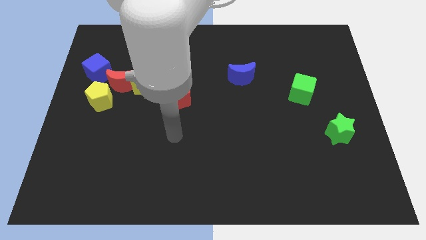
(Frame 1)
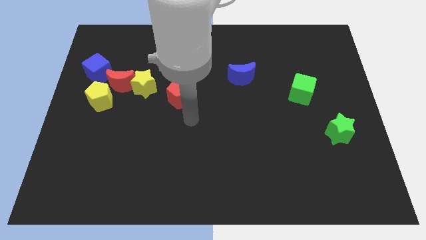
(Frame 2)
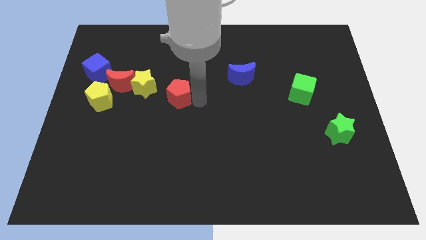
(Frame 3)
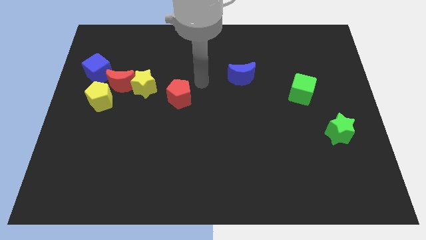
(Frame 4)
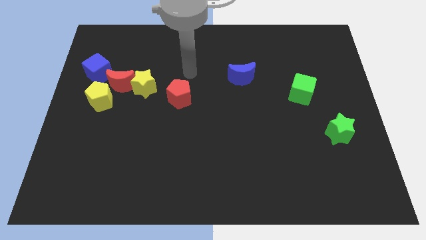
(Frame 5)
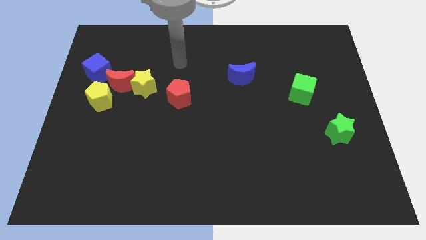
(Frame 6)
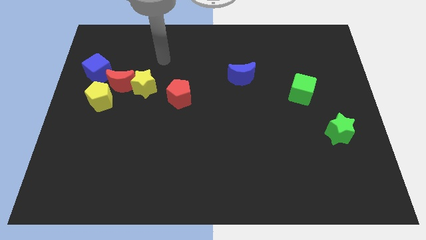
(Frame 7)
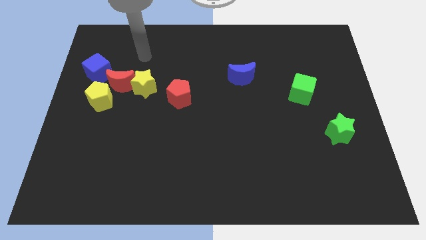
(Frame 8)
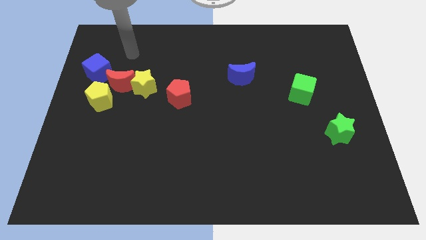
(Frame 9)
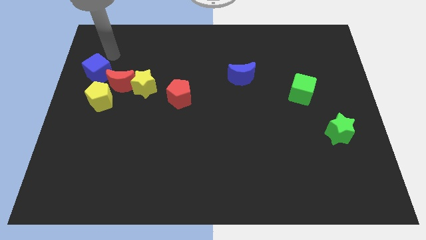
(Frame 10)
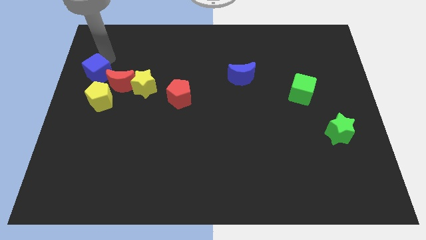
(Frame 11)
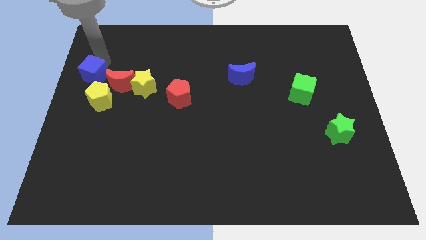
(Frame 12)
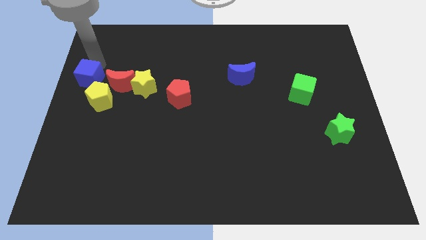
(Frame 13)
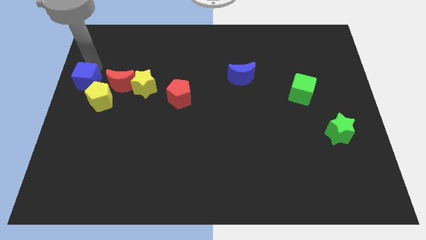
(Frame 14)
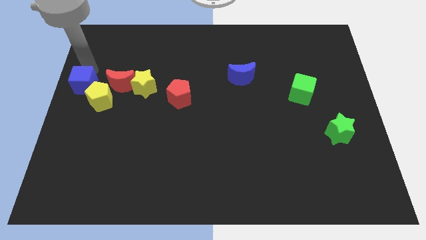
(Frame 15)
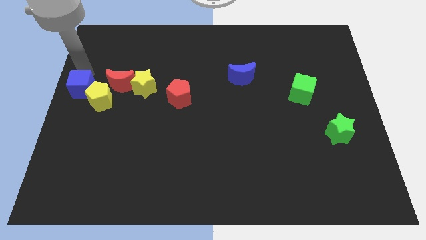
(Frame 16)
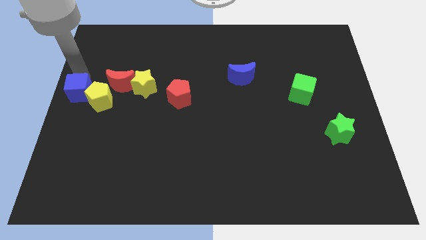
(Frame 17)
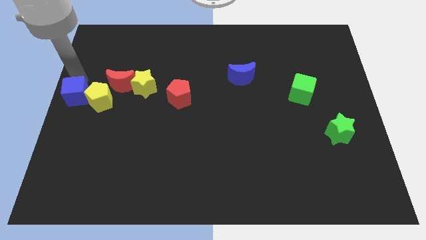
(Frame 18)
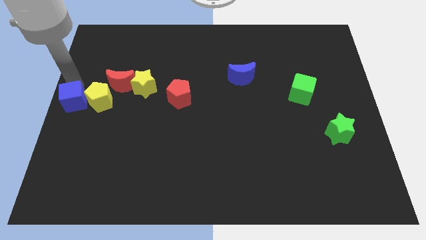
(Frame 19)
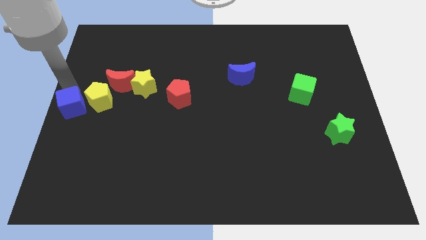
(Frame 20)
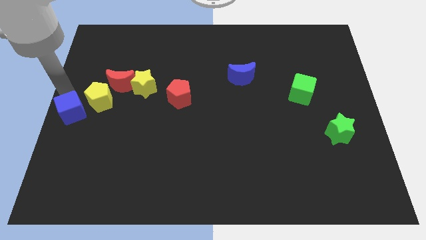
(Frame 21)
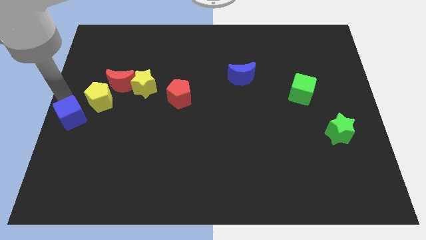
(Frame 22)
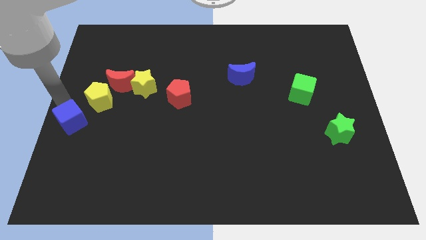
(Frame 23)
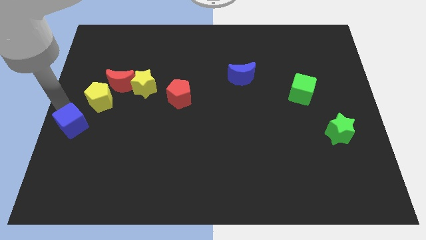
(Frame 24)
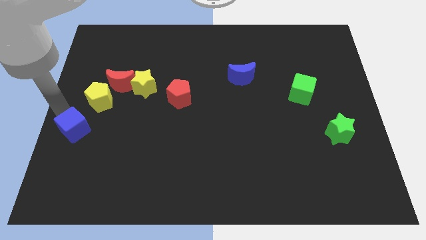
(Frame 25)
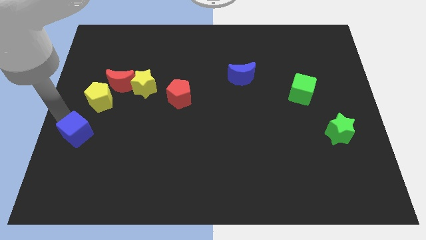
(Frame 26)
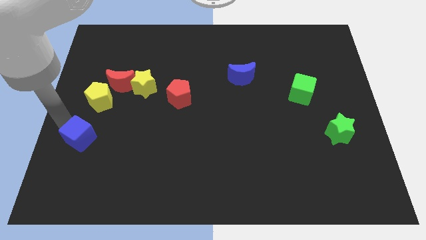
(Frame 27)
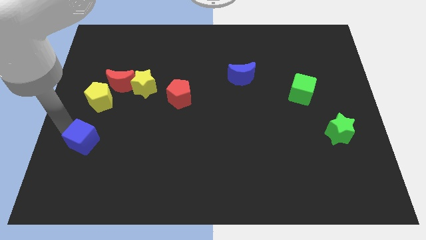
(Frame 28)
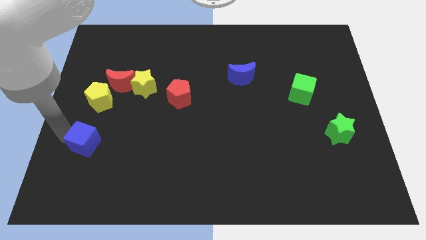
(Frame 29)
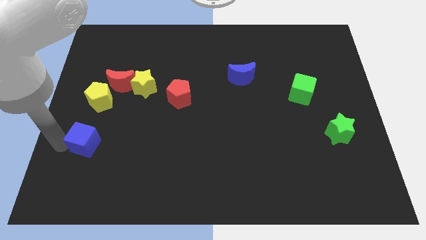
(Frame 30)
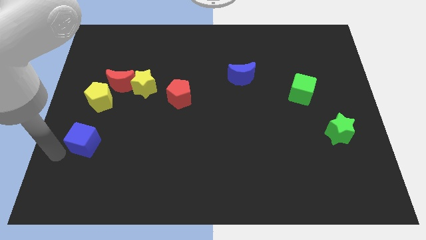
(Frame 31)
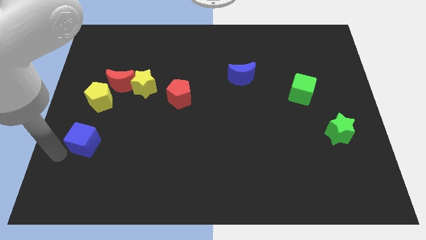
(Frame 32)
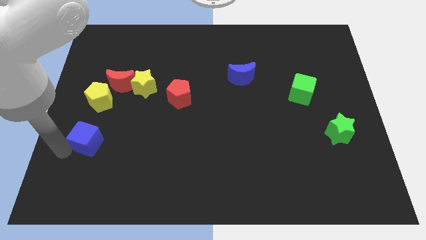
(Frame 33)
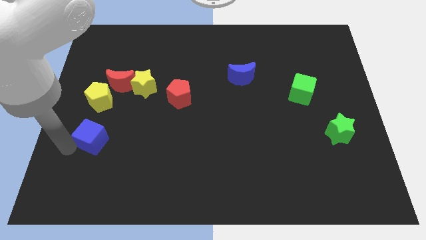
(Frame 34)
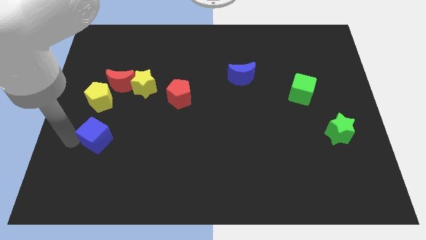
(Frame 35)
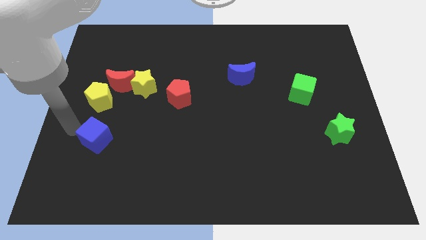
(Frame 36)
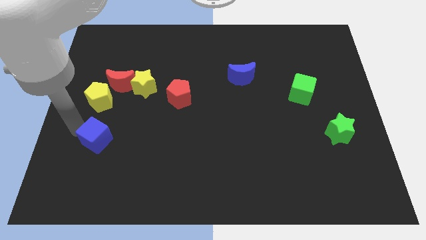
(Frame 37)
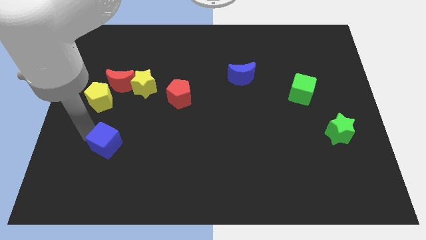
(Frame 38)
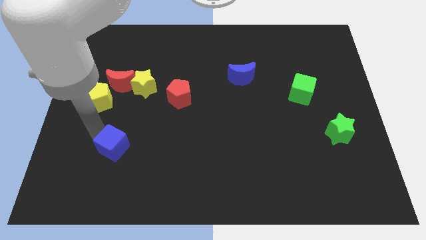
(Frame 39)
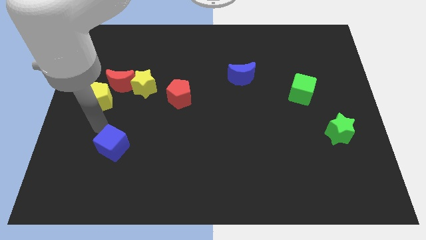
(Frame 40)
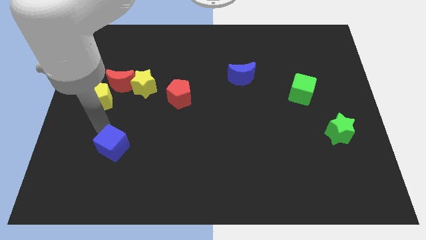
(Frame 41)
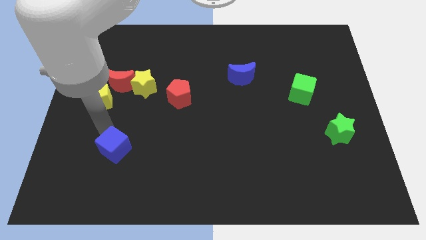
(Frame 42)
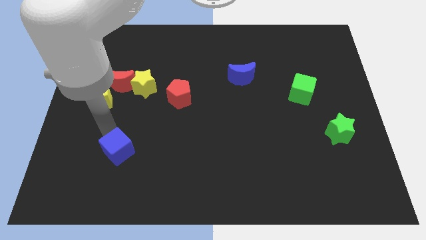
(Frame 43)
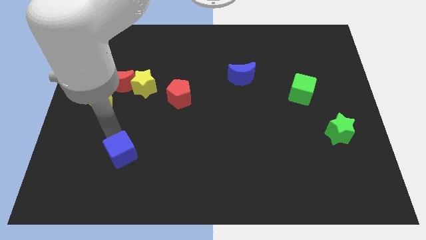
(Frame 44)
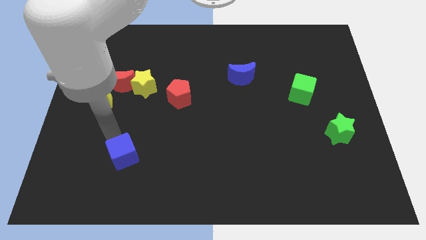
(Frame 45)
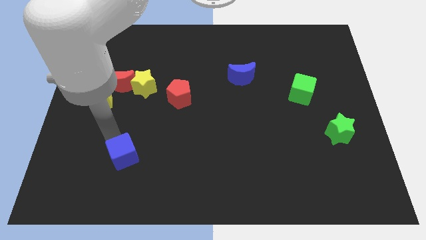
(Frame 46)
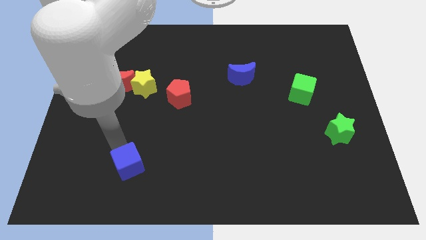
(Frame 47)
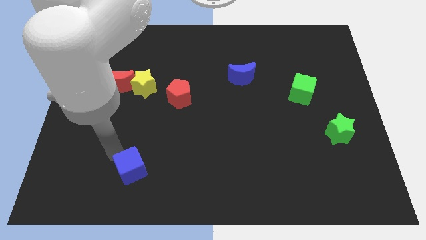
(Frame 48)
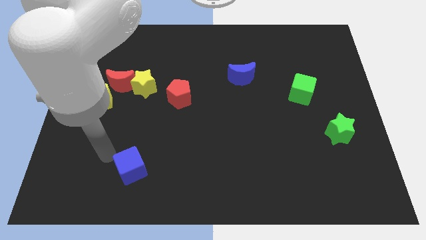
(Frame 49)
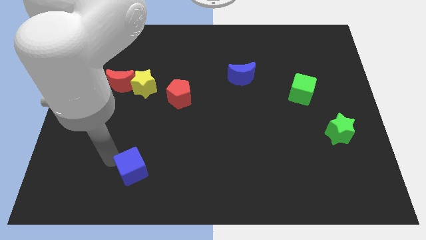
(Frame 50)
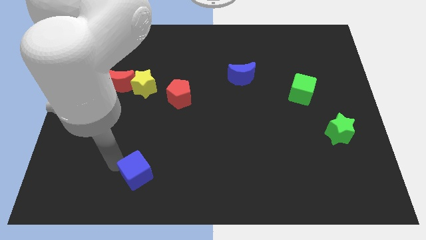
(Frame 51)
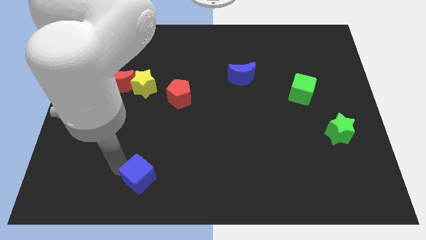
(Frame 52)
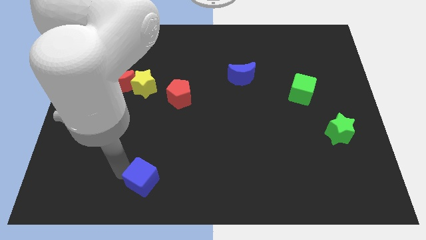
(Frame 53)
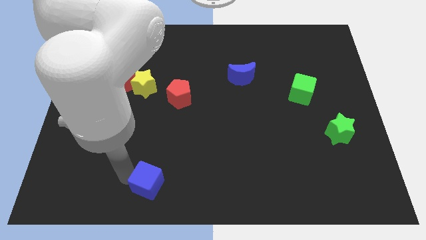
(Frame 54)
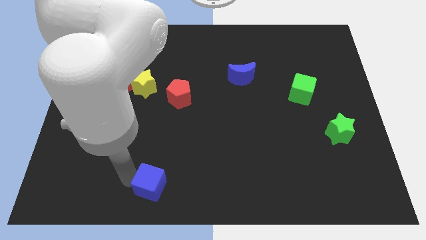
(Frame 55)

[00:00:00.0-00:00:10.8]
move the blue cube to the bottom

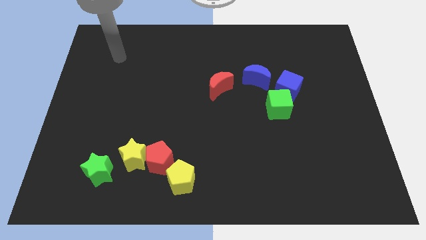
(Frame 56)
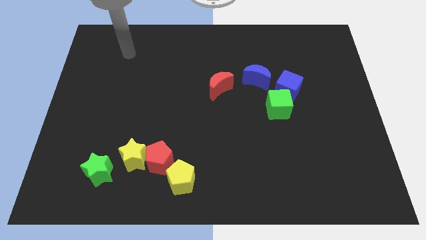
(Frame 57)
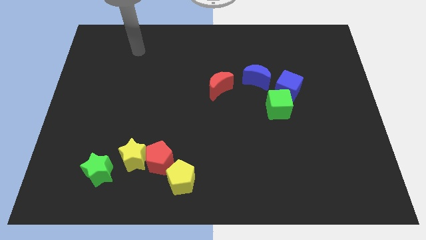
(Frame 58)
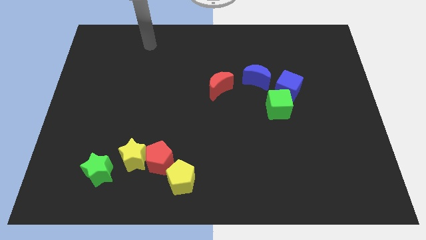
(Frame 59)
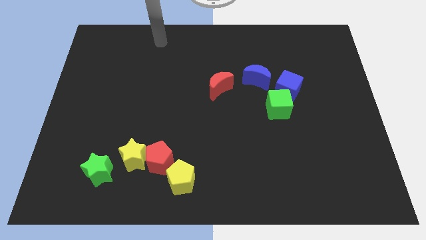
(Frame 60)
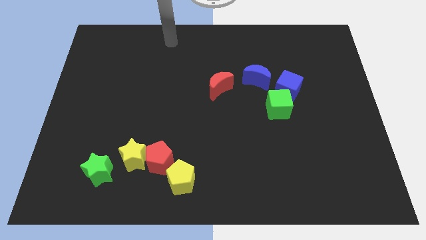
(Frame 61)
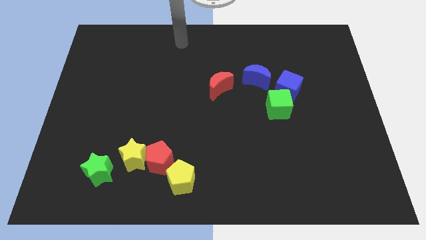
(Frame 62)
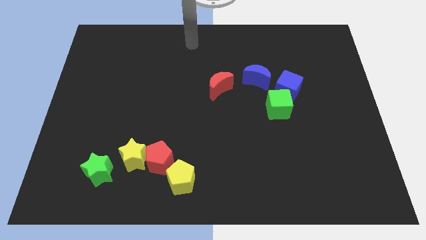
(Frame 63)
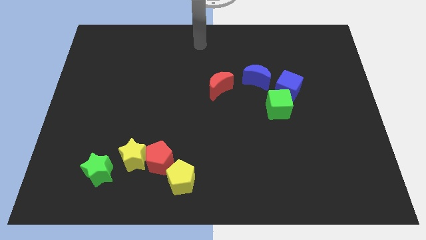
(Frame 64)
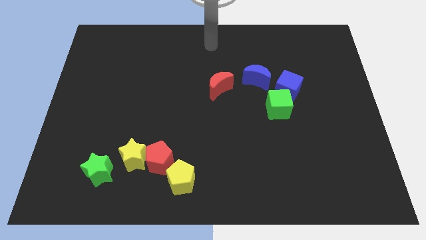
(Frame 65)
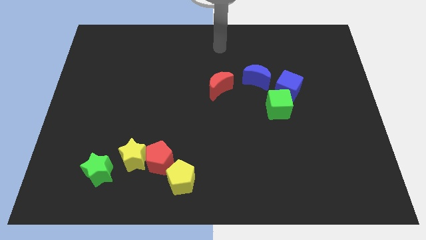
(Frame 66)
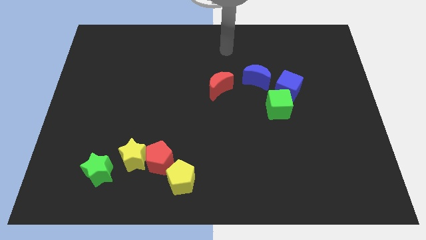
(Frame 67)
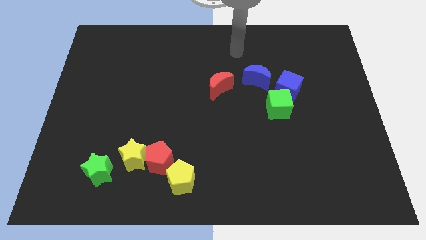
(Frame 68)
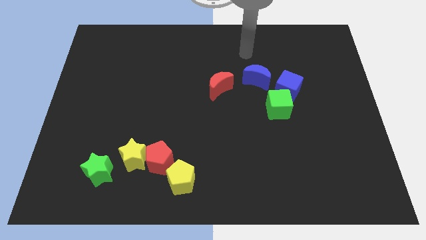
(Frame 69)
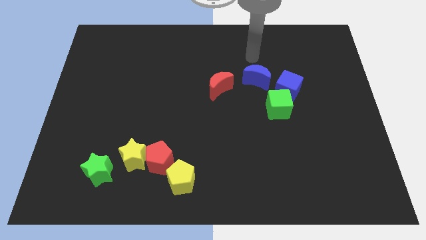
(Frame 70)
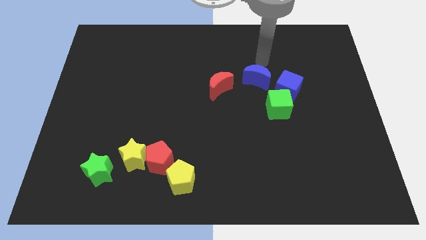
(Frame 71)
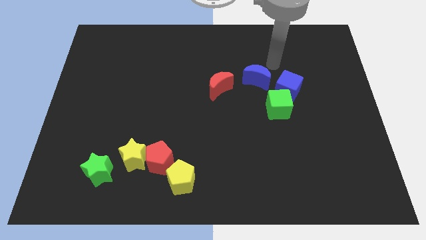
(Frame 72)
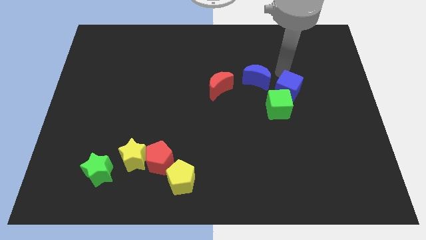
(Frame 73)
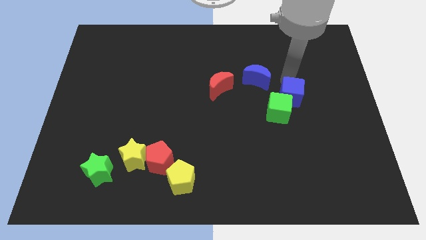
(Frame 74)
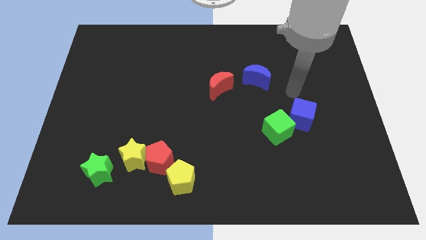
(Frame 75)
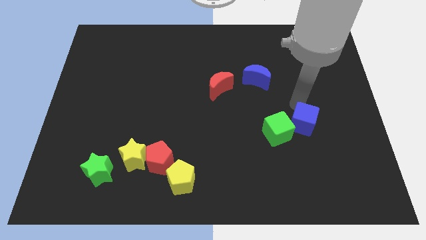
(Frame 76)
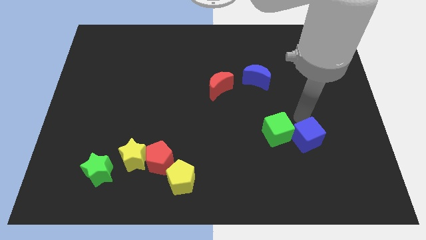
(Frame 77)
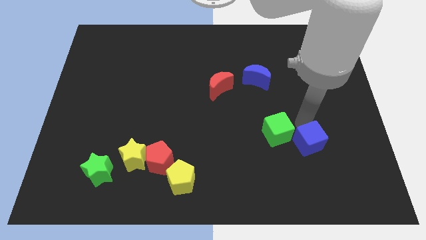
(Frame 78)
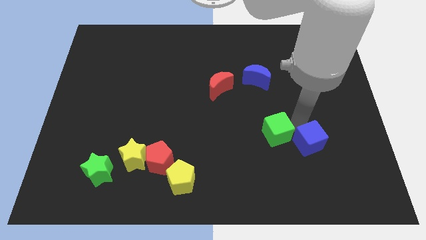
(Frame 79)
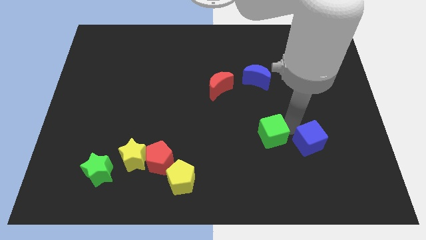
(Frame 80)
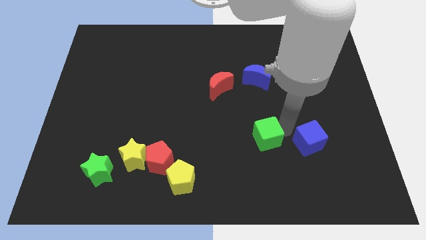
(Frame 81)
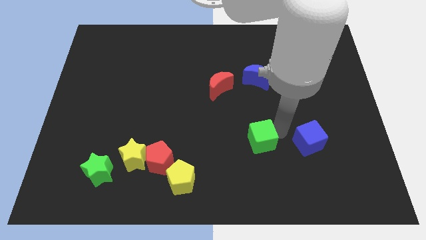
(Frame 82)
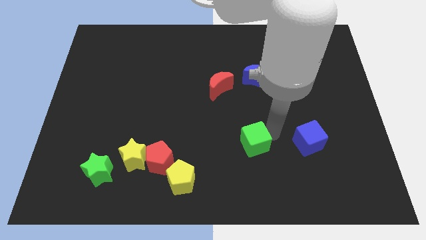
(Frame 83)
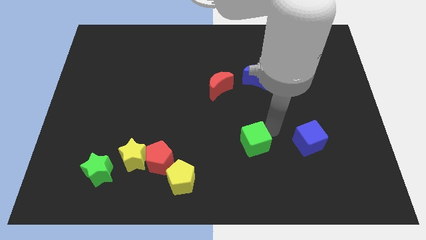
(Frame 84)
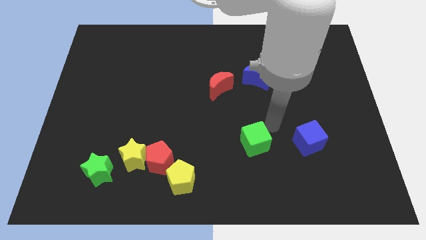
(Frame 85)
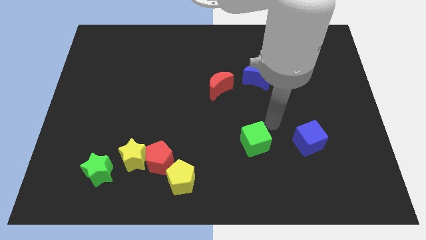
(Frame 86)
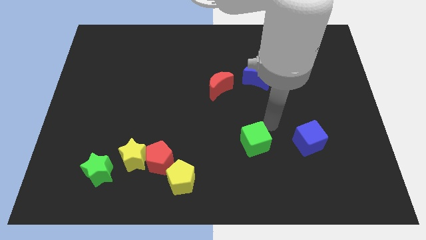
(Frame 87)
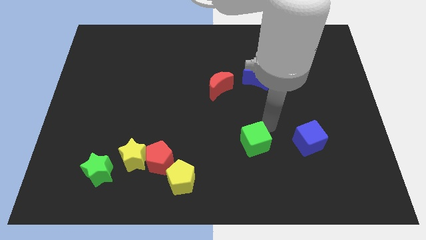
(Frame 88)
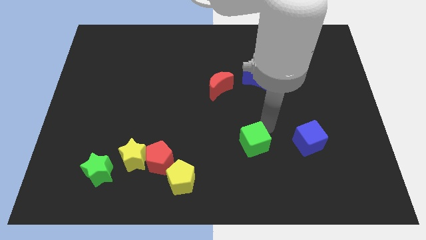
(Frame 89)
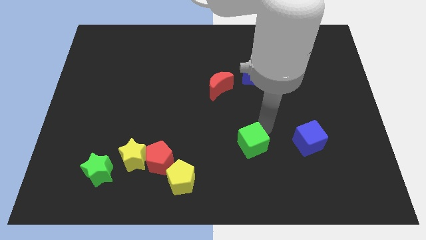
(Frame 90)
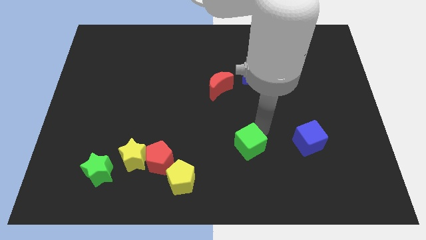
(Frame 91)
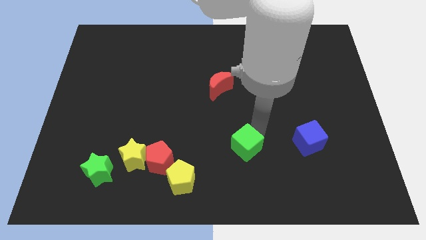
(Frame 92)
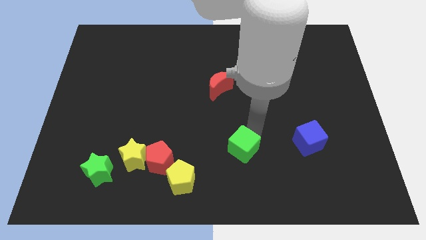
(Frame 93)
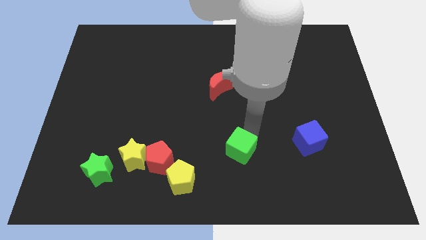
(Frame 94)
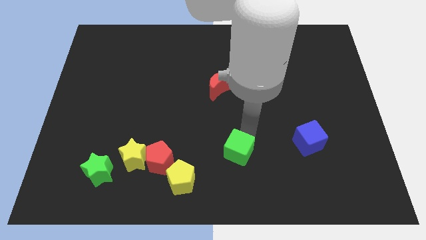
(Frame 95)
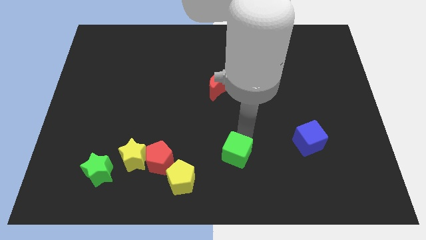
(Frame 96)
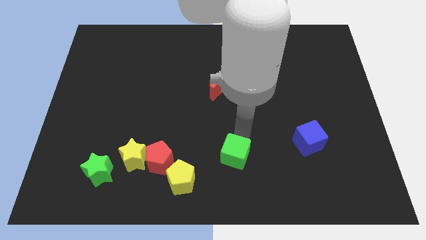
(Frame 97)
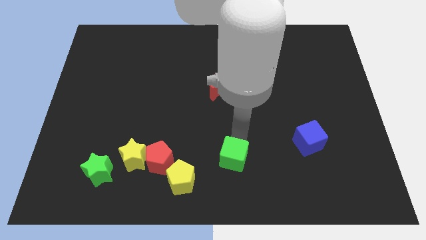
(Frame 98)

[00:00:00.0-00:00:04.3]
slide the green cube to the bottom
